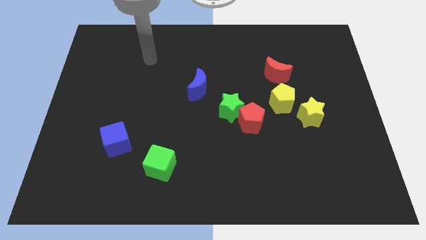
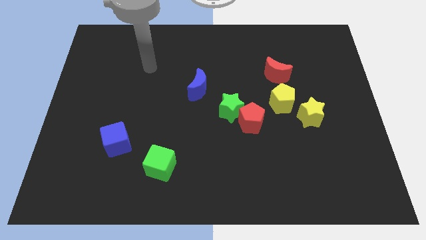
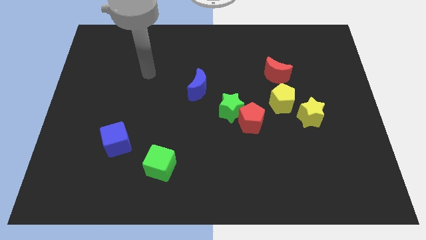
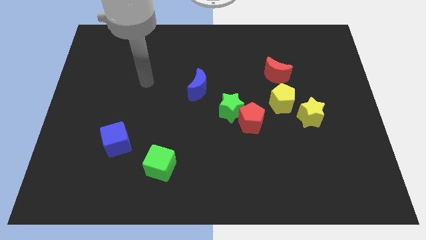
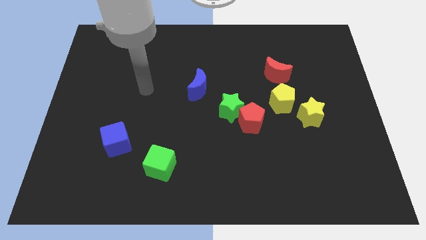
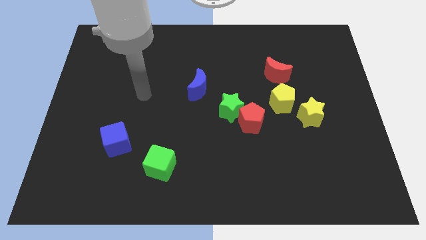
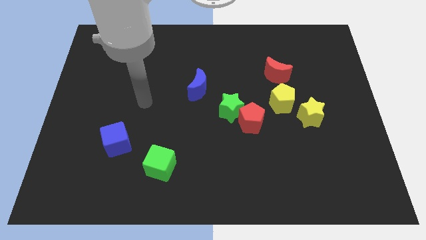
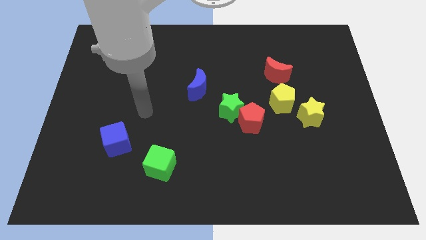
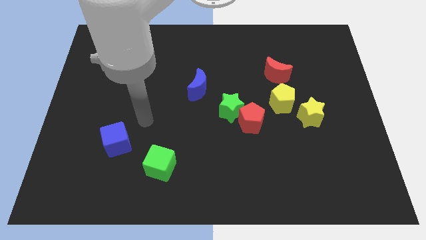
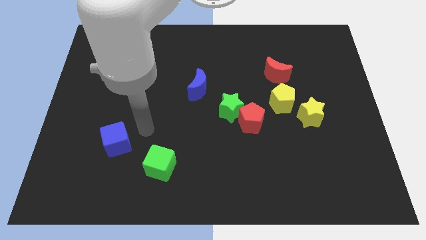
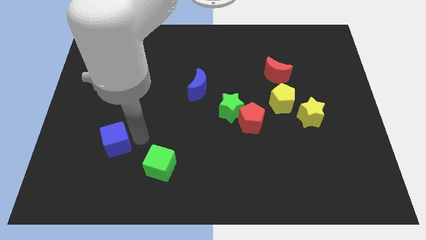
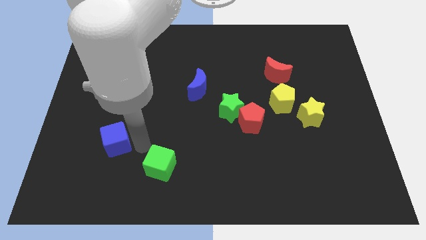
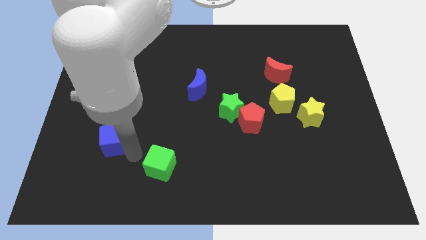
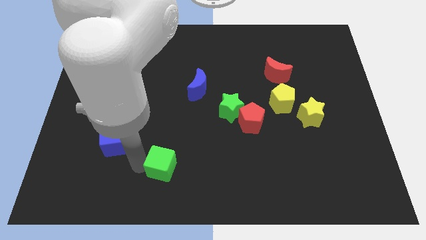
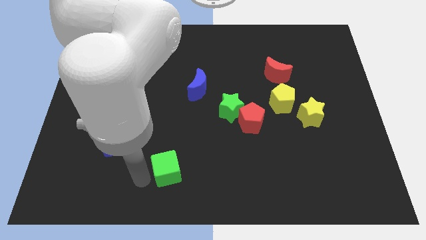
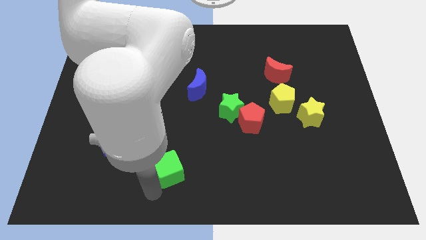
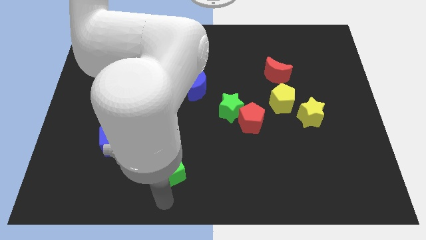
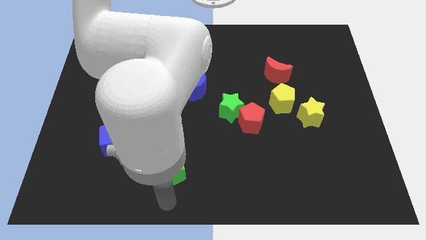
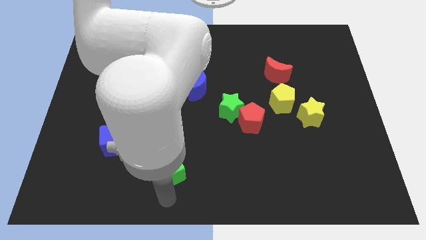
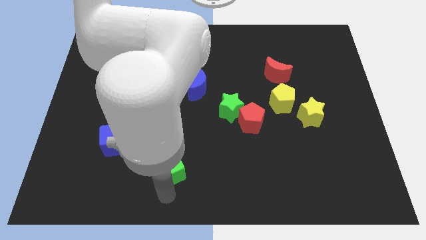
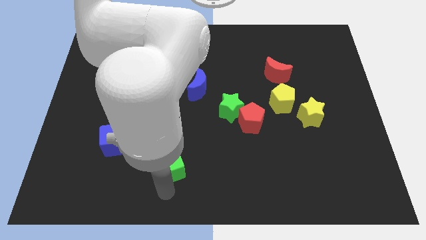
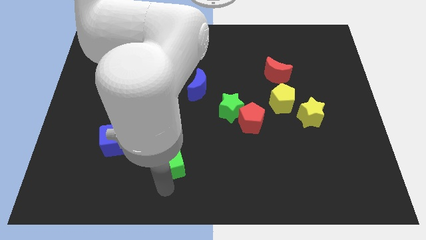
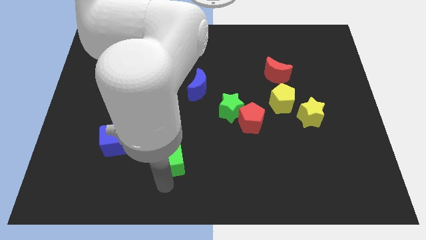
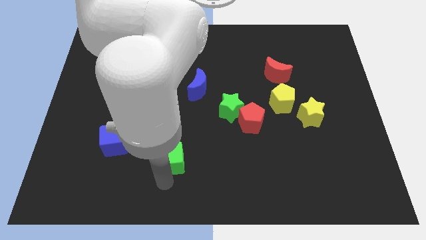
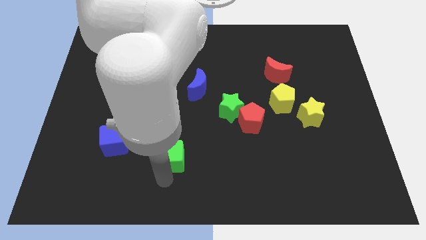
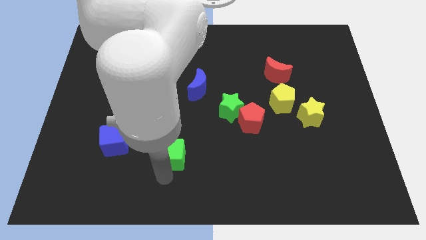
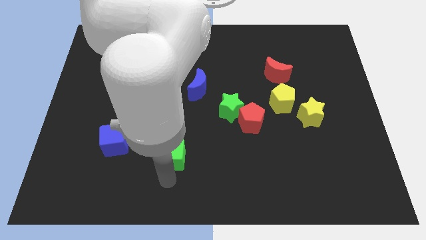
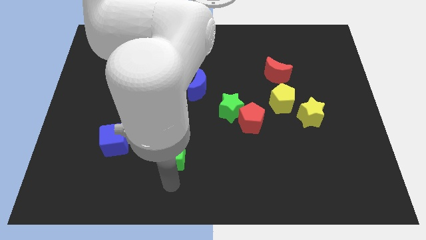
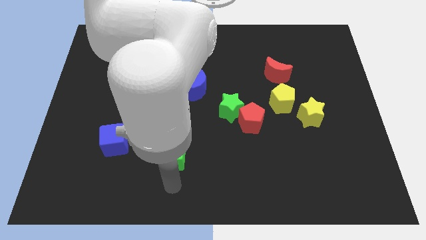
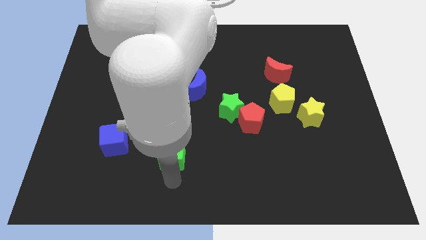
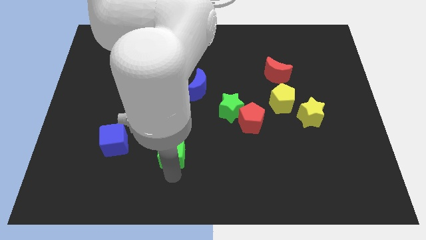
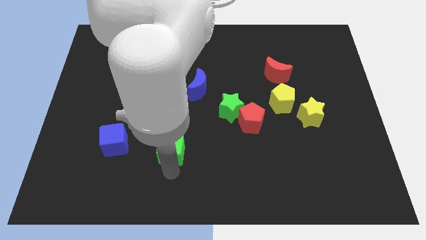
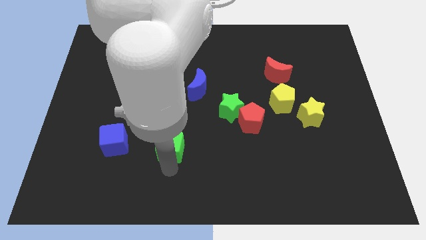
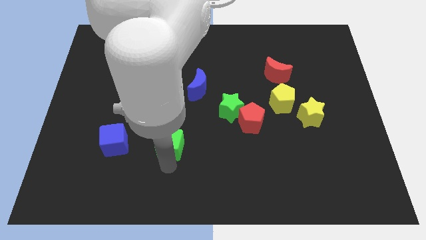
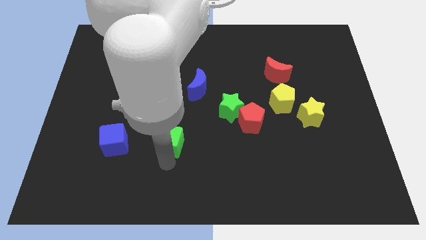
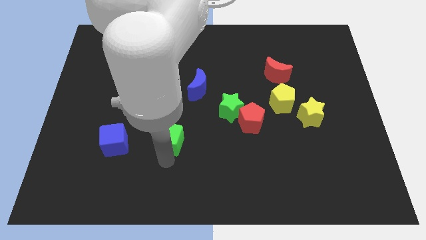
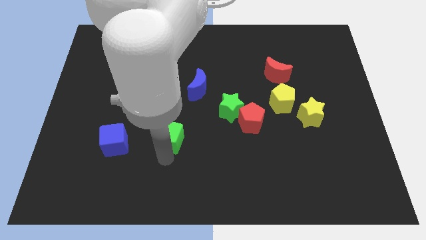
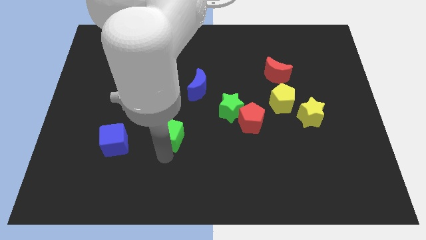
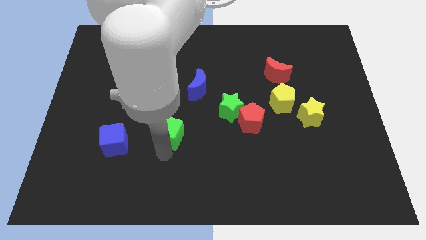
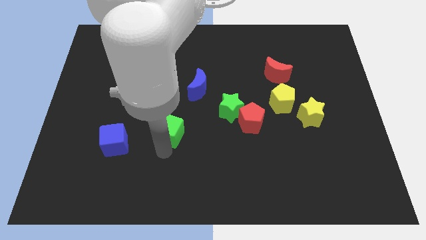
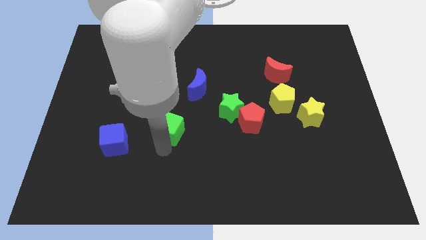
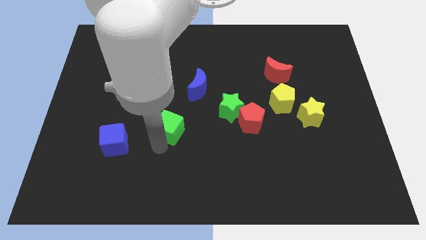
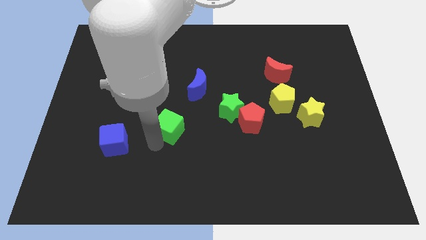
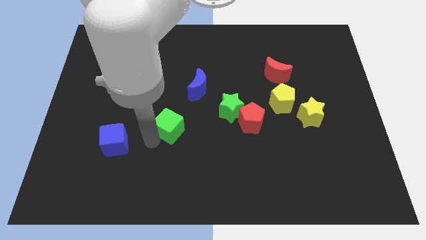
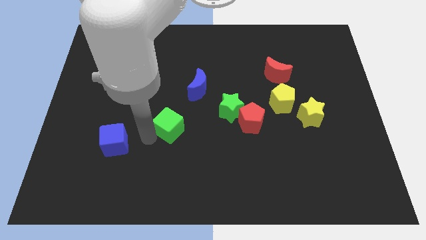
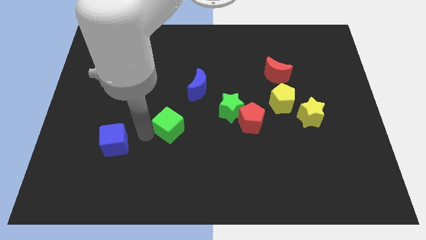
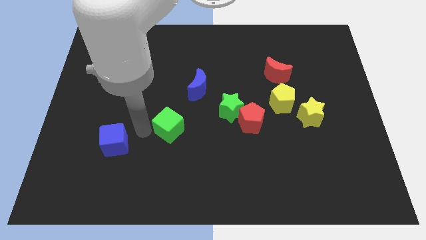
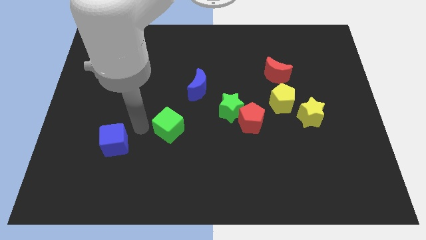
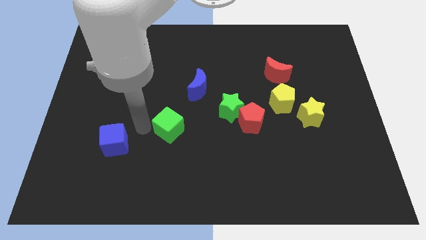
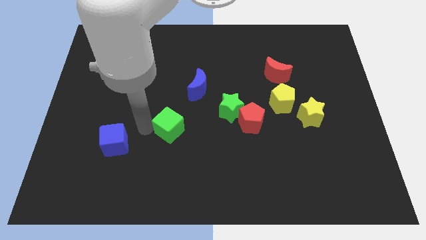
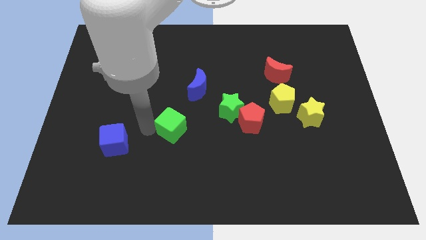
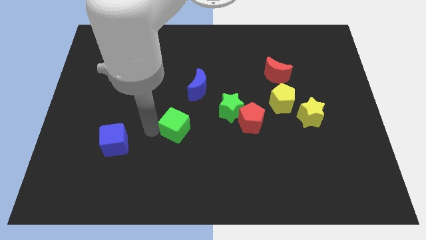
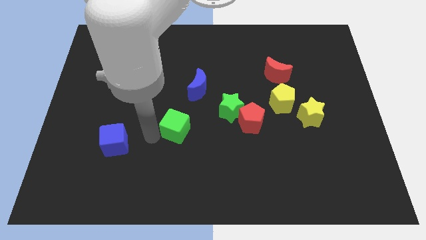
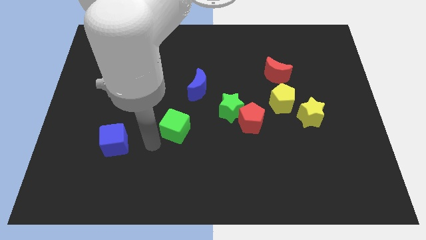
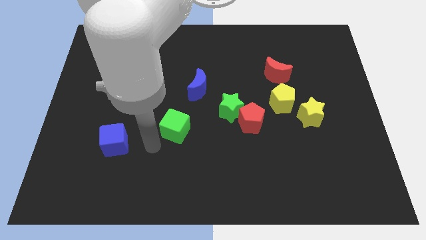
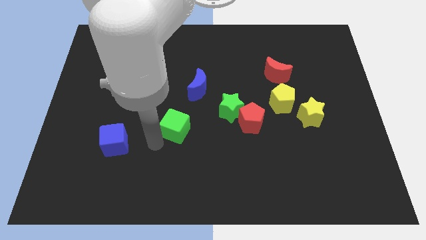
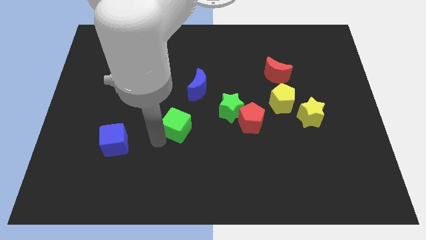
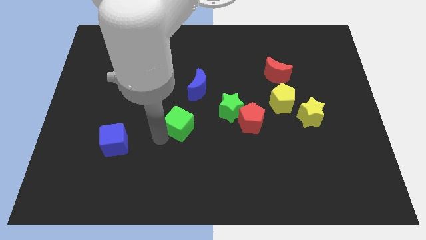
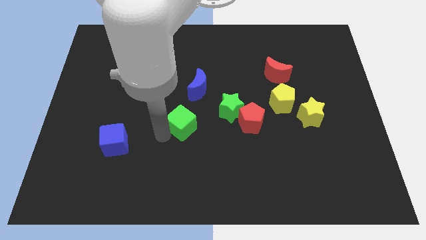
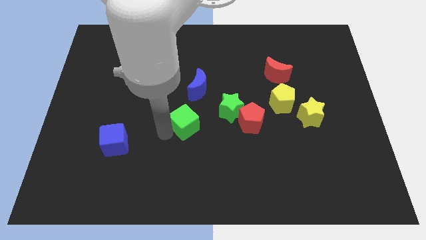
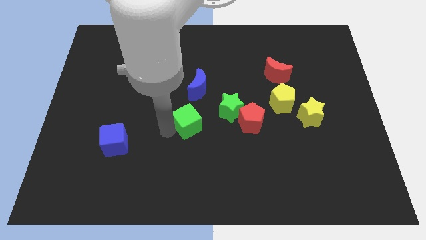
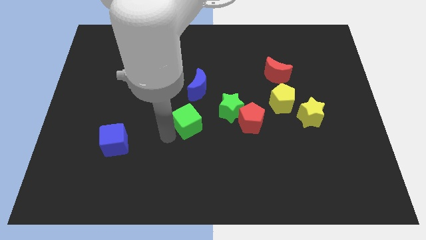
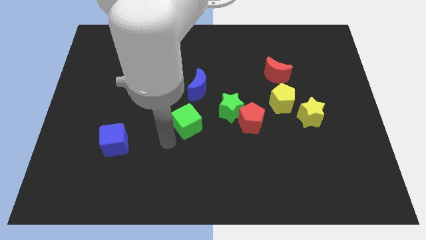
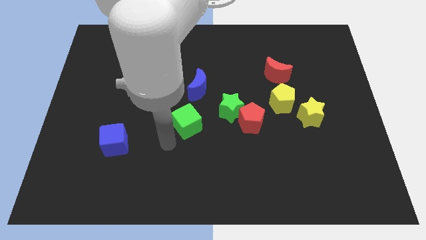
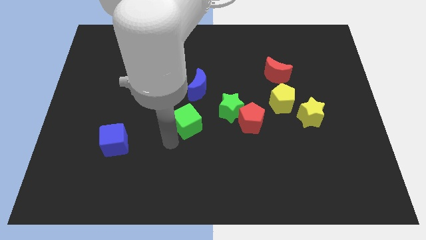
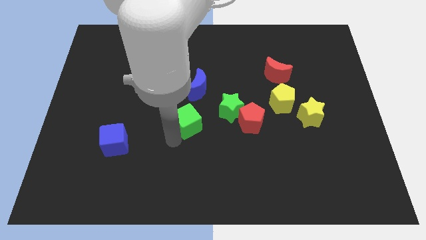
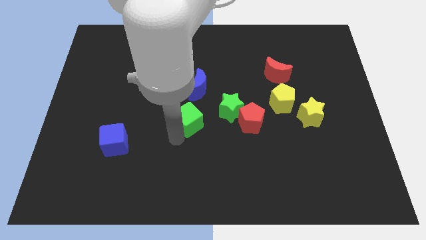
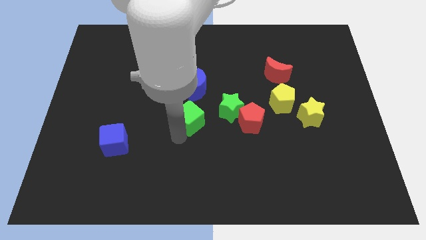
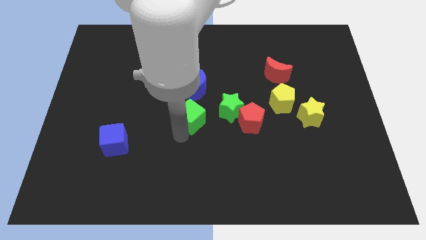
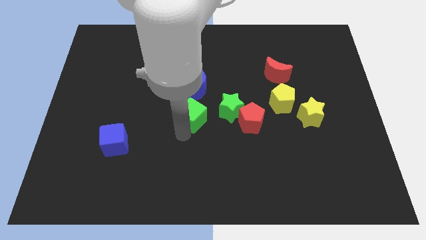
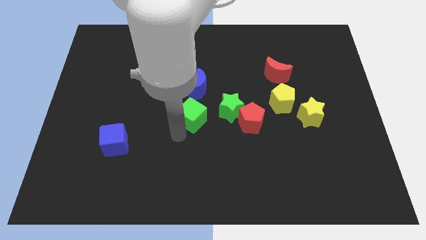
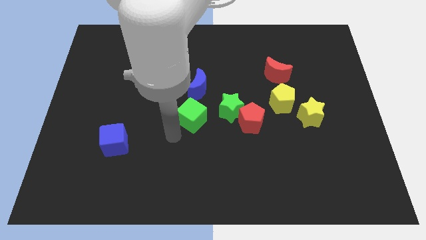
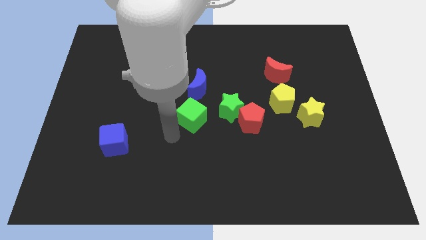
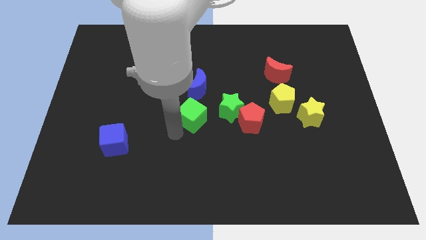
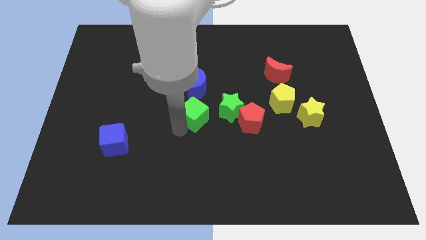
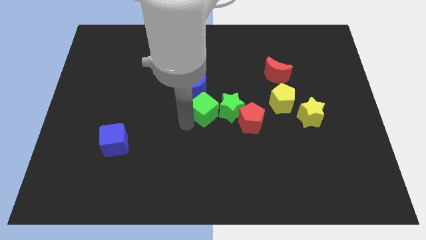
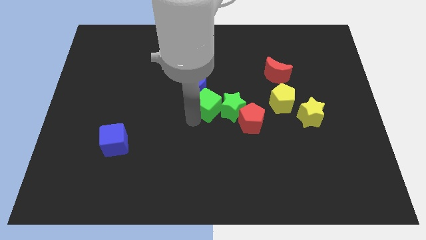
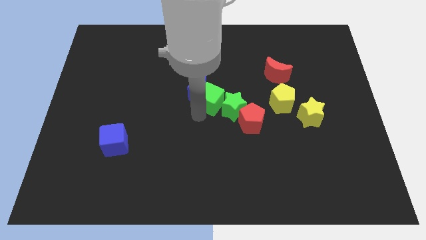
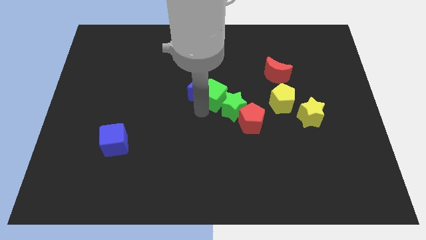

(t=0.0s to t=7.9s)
push the green cube upwards and right diagonally

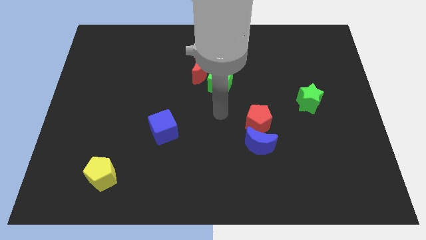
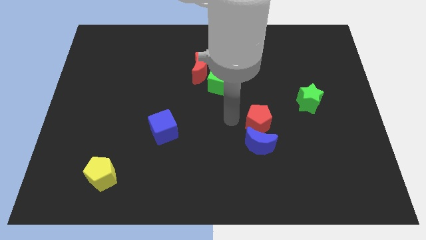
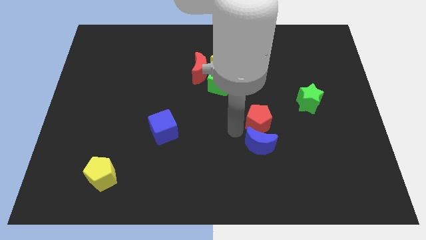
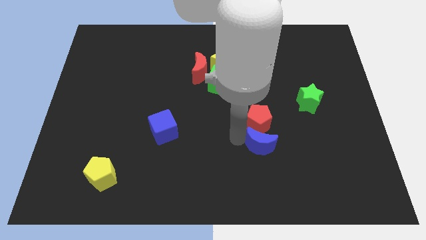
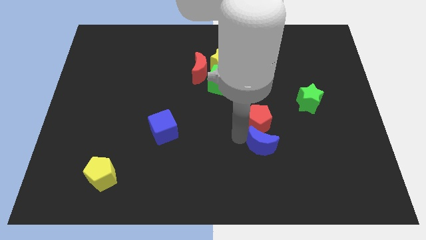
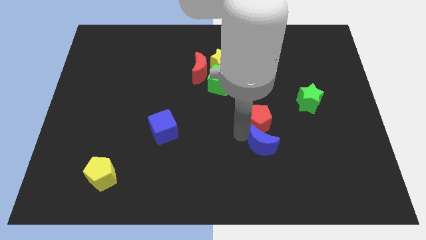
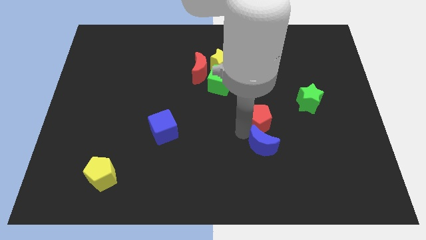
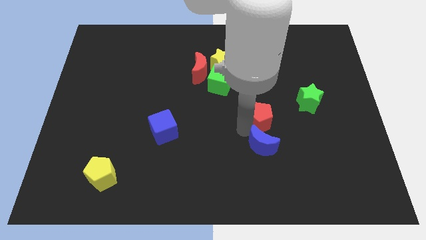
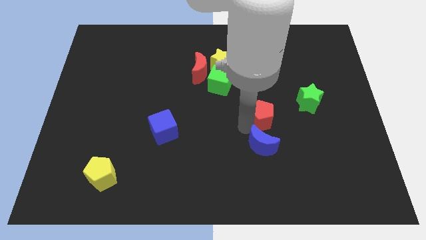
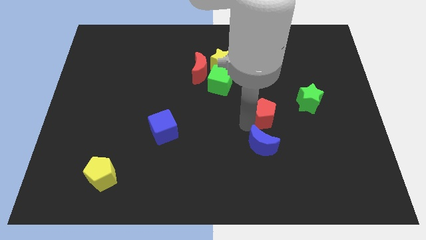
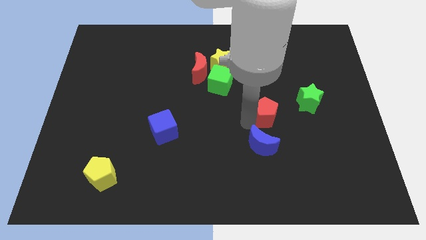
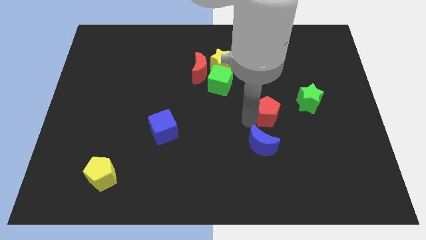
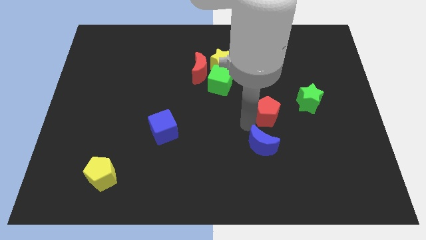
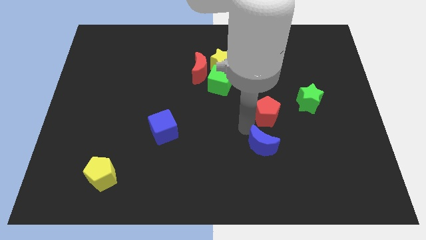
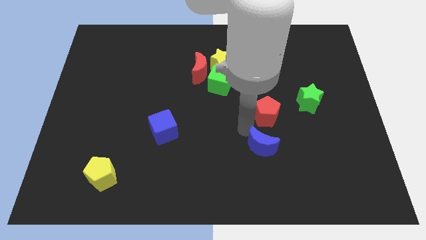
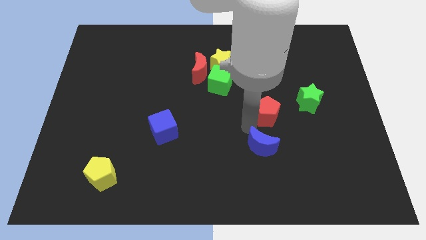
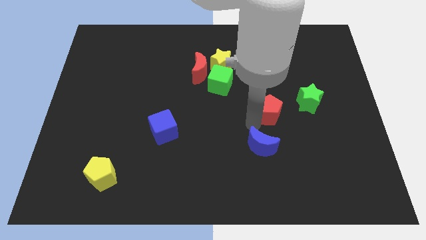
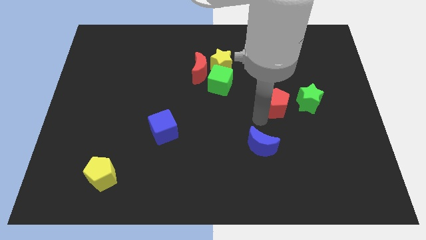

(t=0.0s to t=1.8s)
slightly move the red pentagon up and to the right
